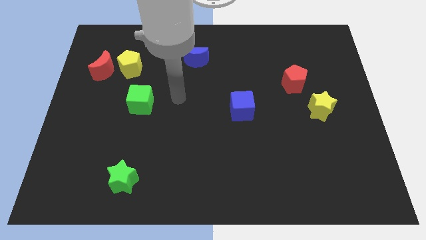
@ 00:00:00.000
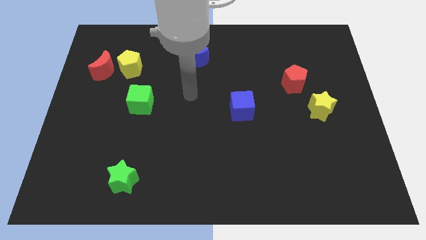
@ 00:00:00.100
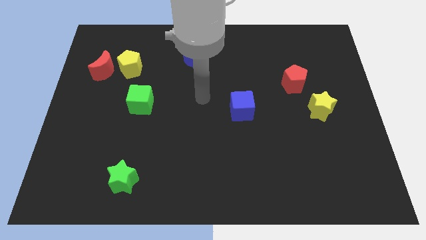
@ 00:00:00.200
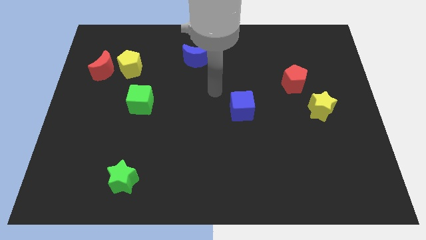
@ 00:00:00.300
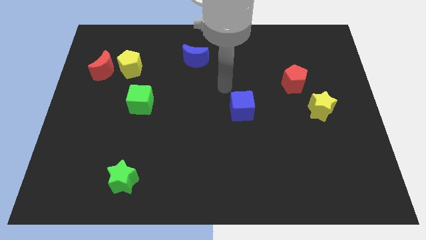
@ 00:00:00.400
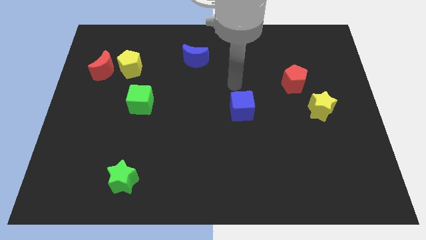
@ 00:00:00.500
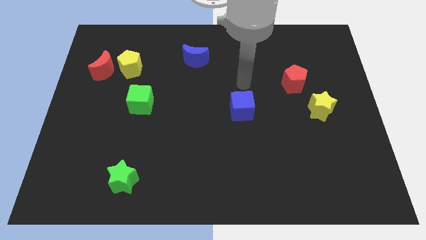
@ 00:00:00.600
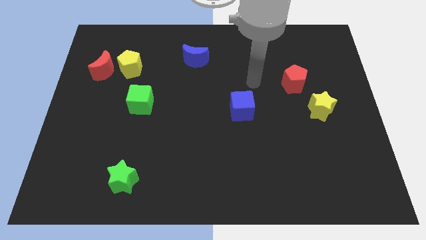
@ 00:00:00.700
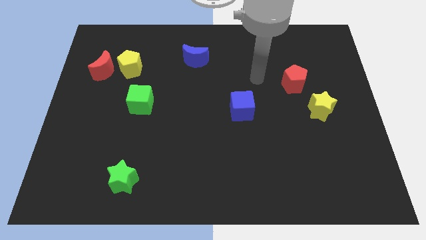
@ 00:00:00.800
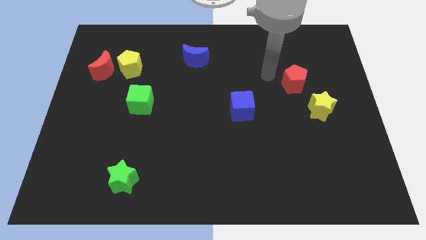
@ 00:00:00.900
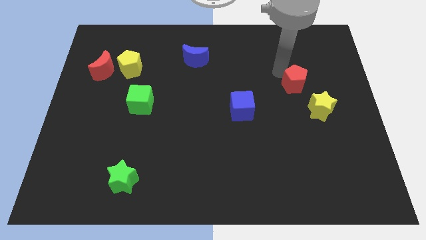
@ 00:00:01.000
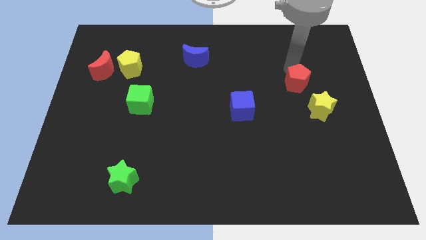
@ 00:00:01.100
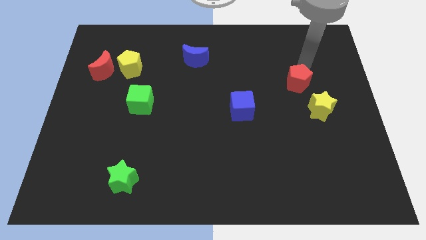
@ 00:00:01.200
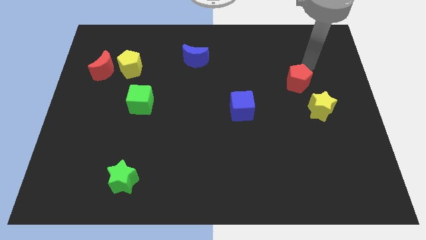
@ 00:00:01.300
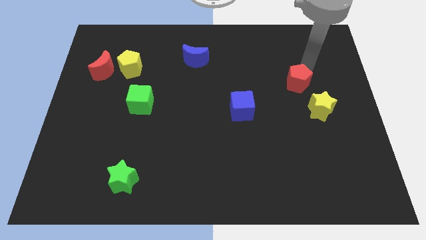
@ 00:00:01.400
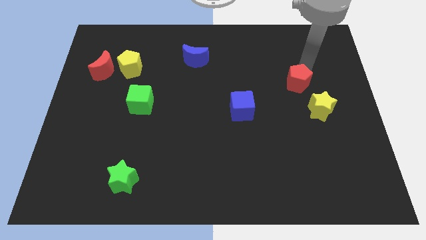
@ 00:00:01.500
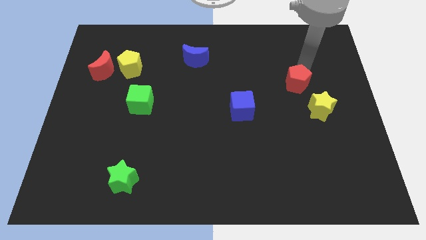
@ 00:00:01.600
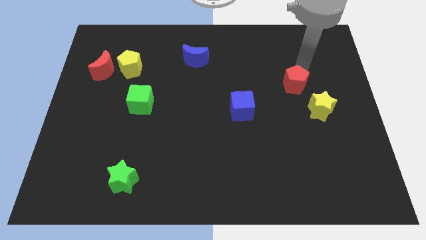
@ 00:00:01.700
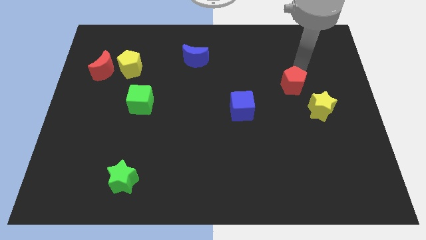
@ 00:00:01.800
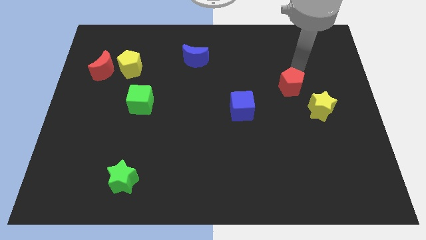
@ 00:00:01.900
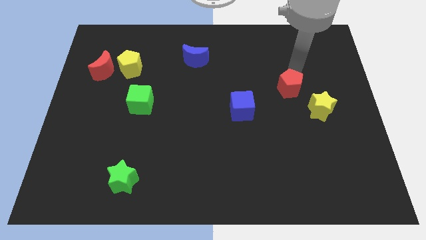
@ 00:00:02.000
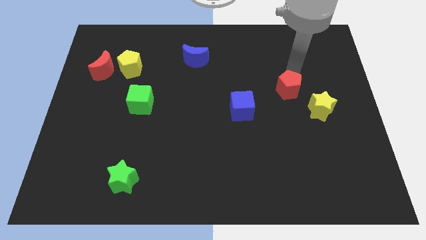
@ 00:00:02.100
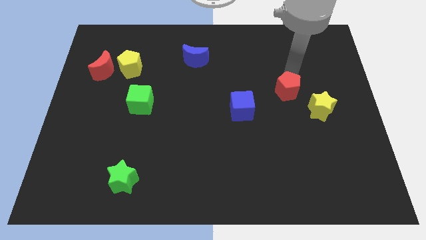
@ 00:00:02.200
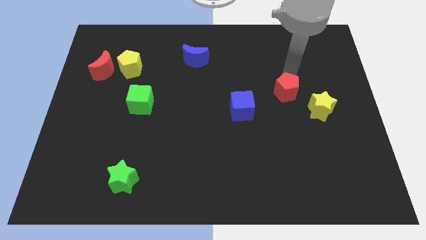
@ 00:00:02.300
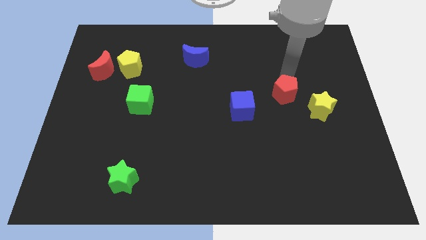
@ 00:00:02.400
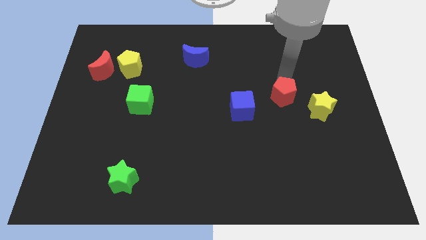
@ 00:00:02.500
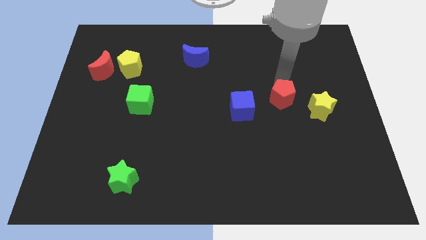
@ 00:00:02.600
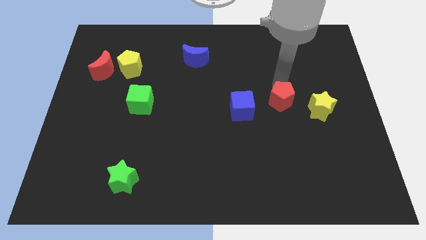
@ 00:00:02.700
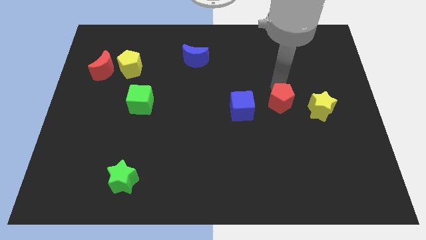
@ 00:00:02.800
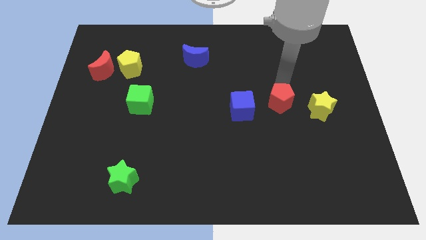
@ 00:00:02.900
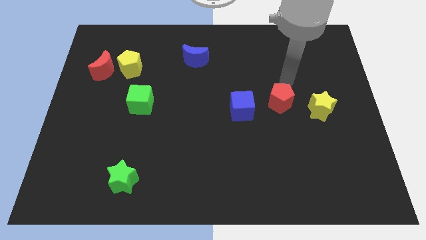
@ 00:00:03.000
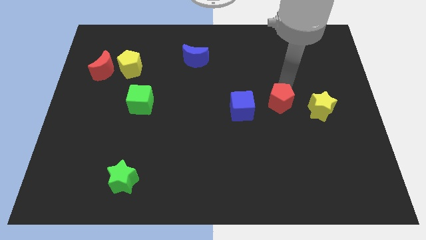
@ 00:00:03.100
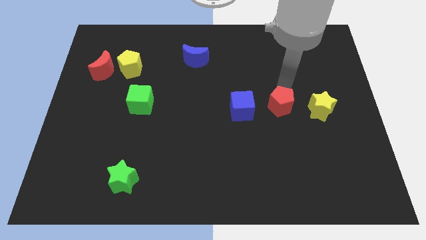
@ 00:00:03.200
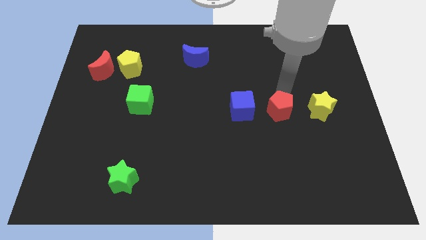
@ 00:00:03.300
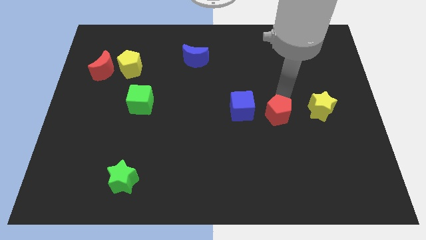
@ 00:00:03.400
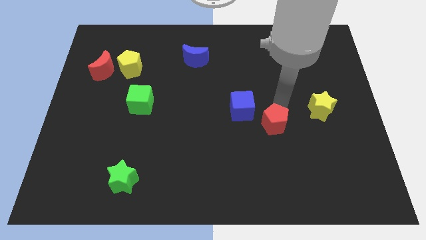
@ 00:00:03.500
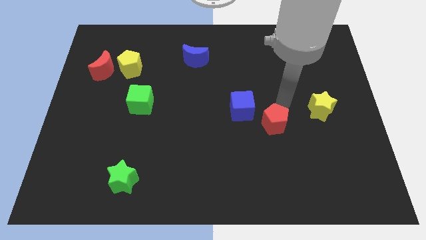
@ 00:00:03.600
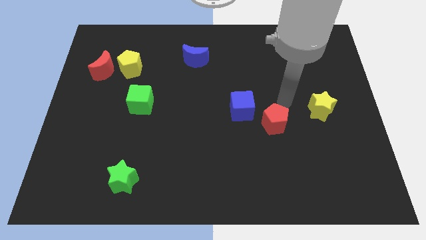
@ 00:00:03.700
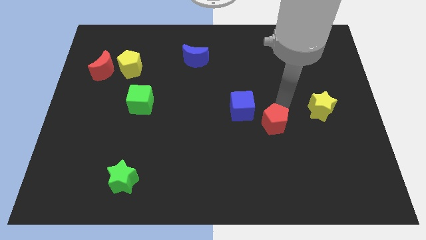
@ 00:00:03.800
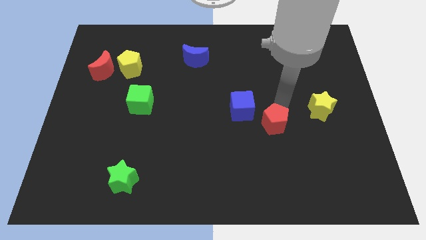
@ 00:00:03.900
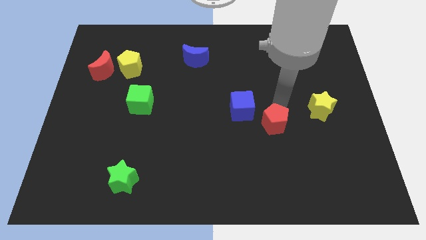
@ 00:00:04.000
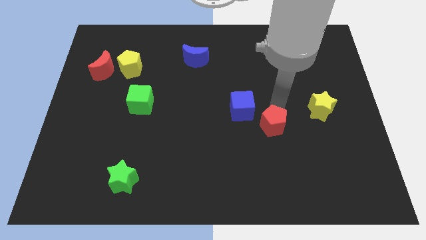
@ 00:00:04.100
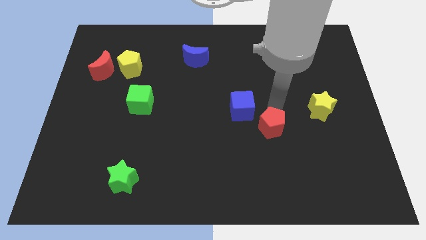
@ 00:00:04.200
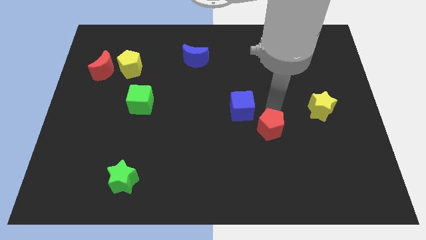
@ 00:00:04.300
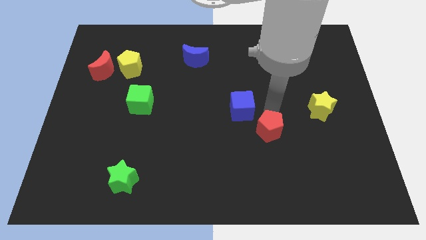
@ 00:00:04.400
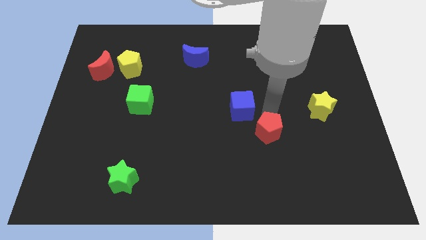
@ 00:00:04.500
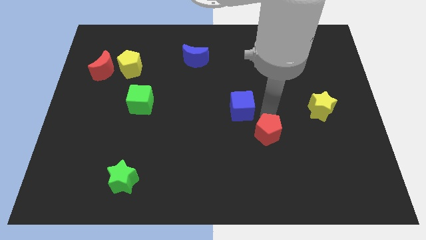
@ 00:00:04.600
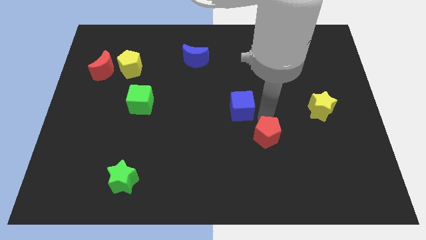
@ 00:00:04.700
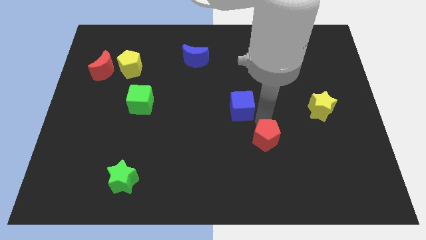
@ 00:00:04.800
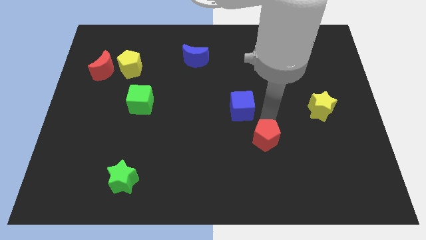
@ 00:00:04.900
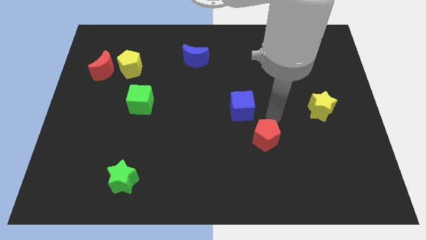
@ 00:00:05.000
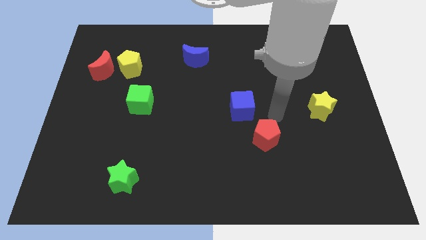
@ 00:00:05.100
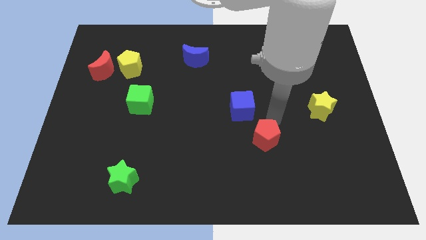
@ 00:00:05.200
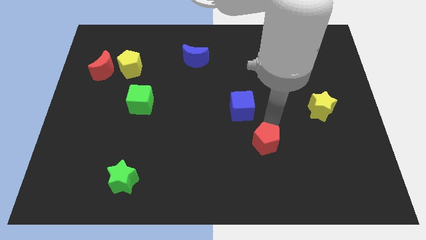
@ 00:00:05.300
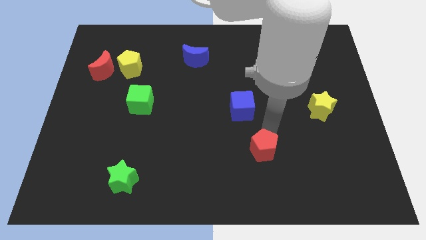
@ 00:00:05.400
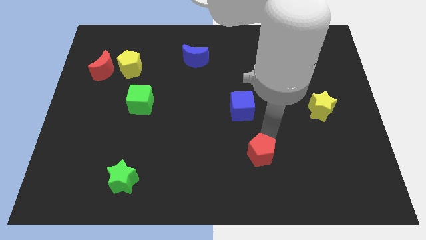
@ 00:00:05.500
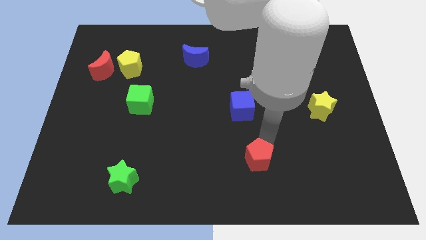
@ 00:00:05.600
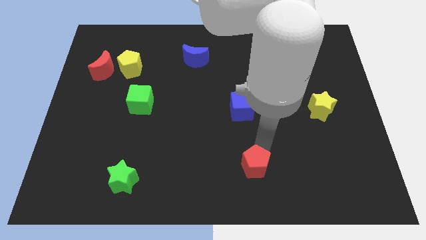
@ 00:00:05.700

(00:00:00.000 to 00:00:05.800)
move the red pentagon to the bottom

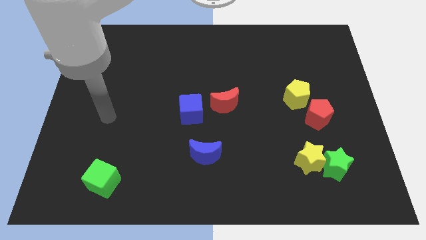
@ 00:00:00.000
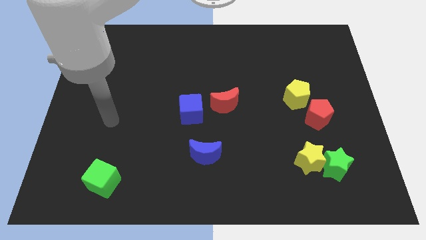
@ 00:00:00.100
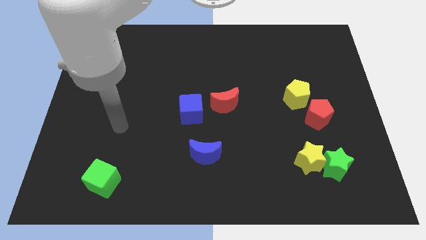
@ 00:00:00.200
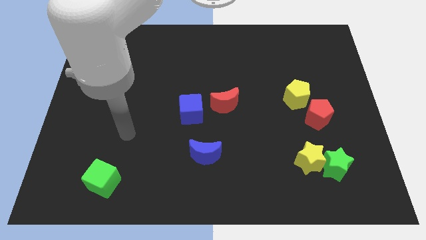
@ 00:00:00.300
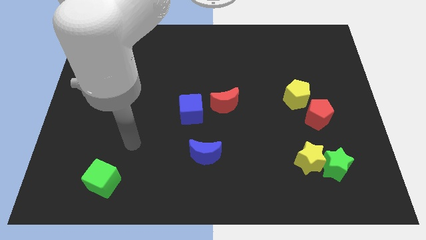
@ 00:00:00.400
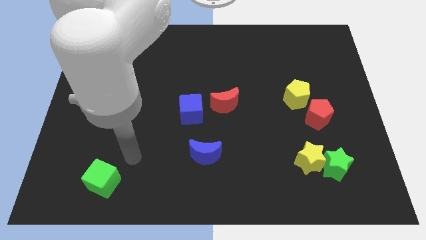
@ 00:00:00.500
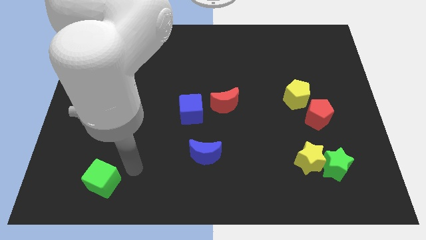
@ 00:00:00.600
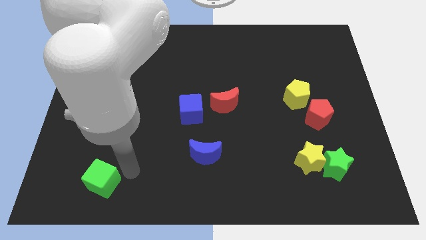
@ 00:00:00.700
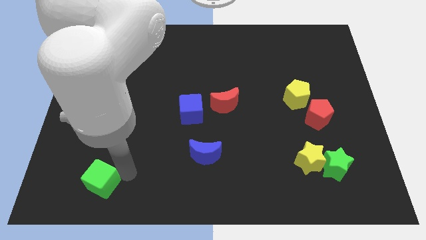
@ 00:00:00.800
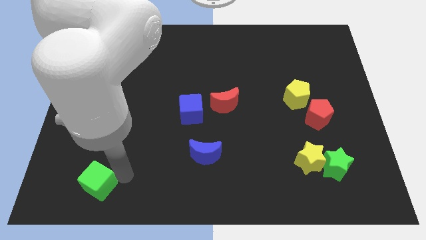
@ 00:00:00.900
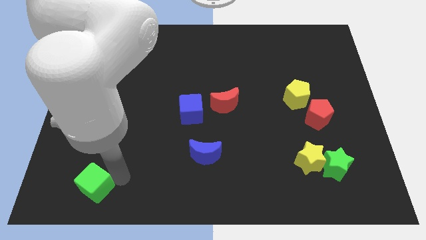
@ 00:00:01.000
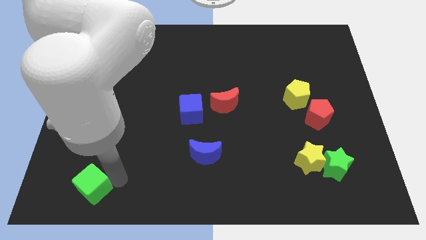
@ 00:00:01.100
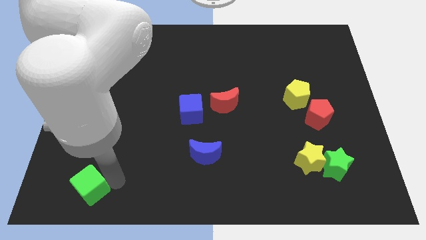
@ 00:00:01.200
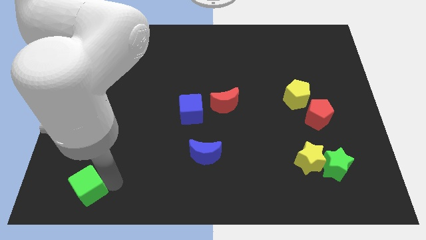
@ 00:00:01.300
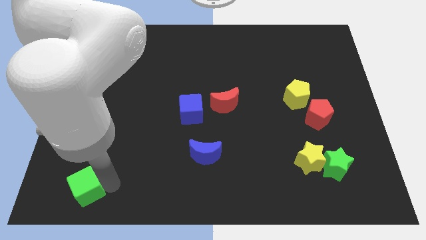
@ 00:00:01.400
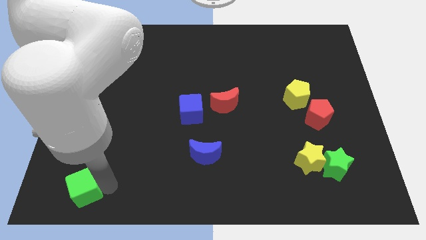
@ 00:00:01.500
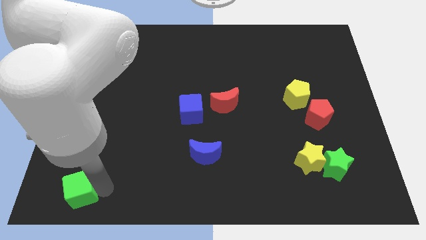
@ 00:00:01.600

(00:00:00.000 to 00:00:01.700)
put the green cube to the bottom left of the board
